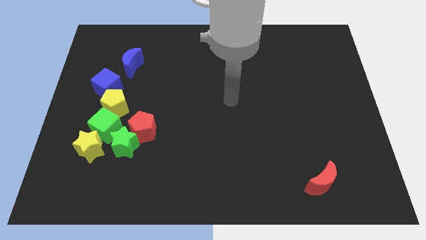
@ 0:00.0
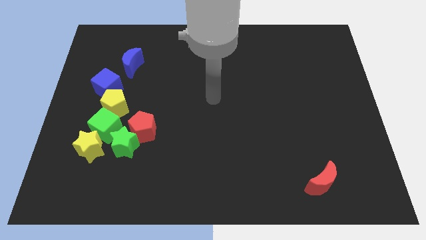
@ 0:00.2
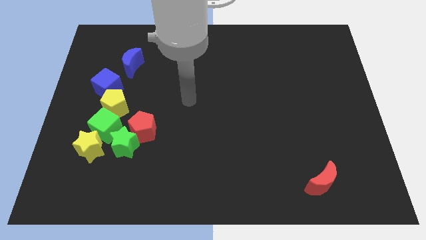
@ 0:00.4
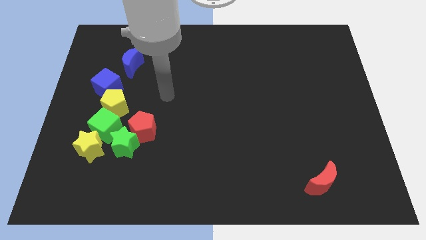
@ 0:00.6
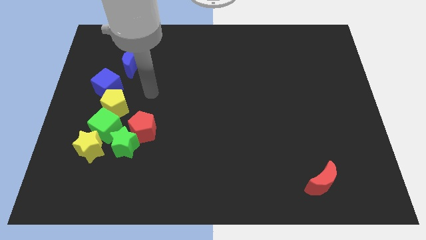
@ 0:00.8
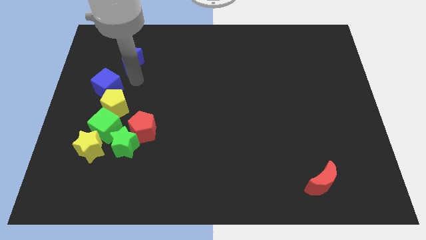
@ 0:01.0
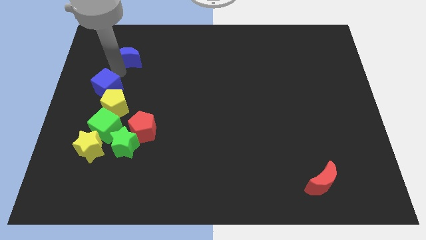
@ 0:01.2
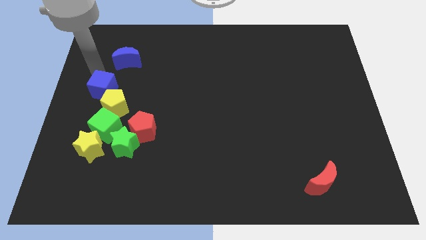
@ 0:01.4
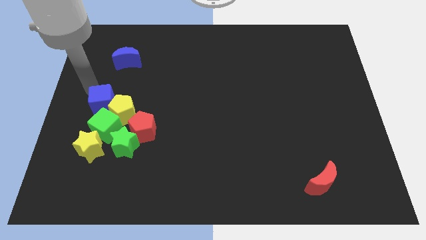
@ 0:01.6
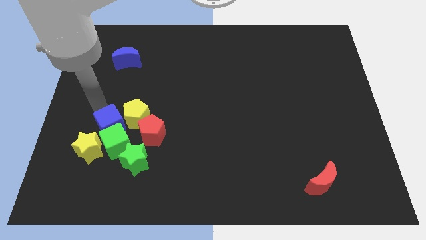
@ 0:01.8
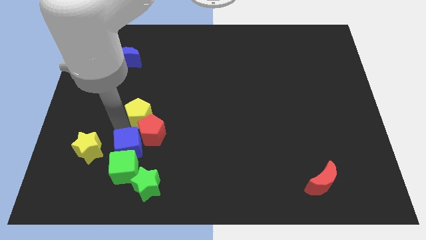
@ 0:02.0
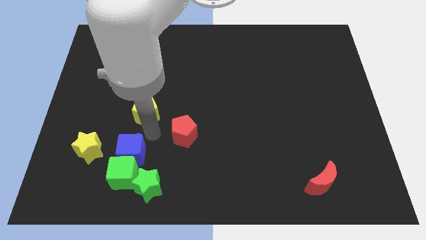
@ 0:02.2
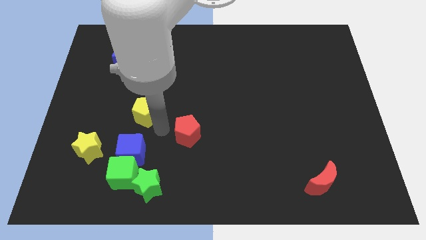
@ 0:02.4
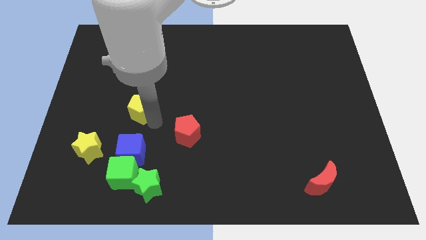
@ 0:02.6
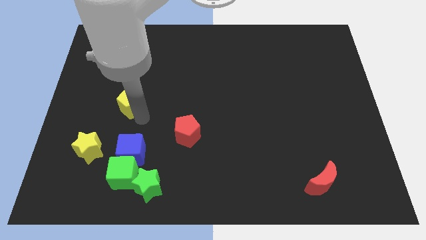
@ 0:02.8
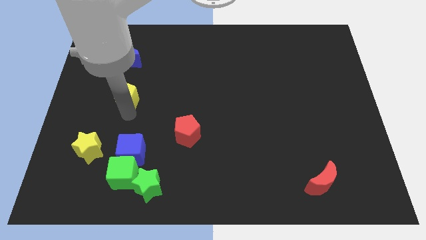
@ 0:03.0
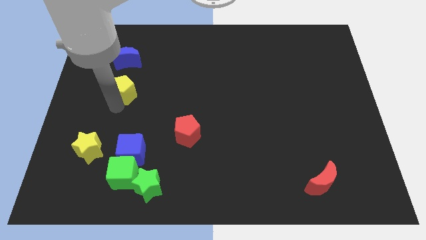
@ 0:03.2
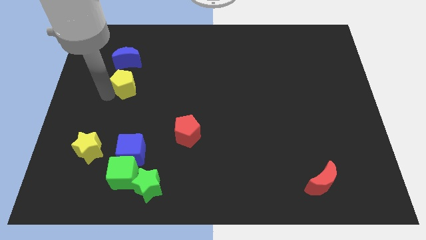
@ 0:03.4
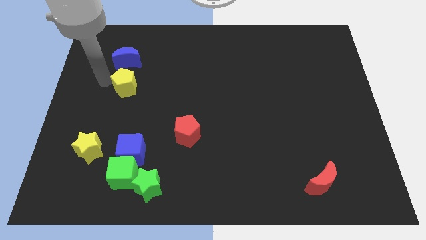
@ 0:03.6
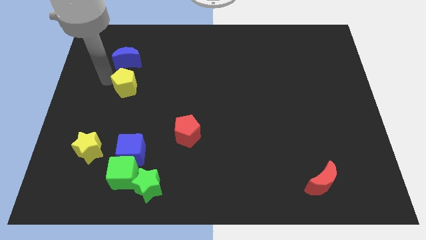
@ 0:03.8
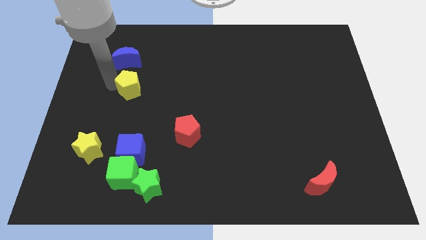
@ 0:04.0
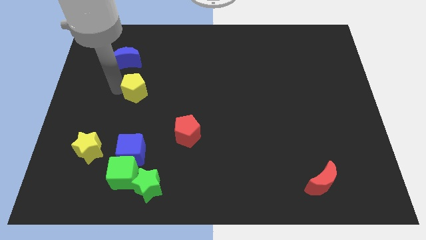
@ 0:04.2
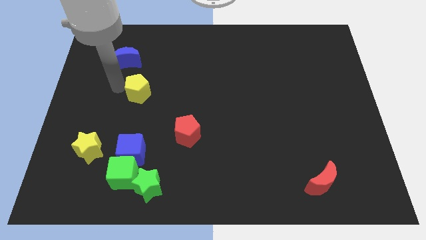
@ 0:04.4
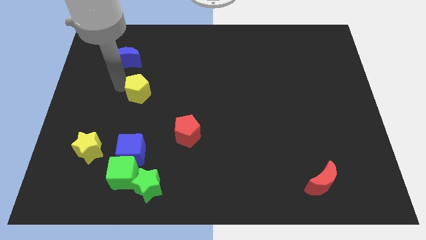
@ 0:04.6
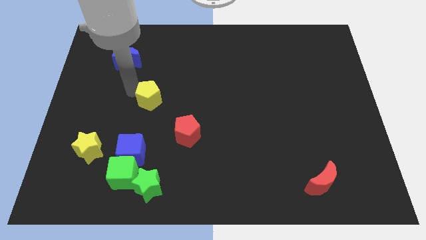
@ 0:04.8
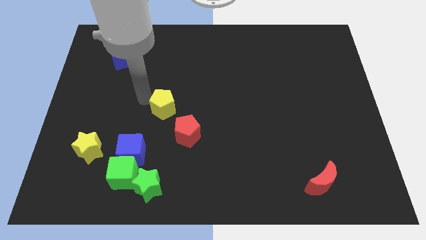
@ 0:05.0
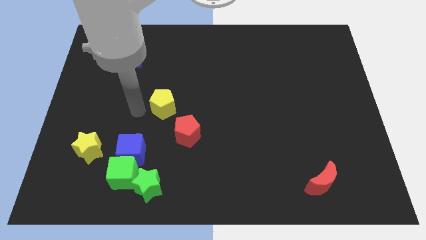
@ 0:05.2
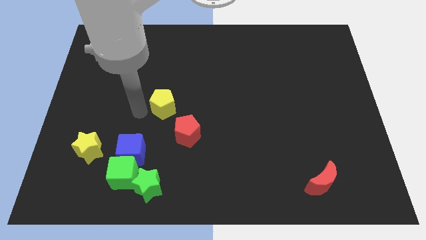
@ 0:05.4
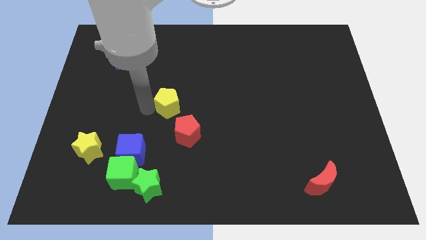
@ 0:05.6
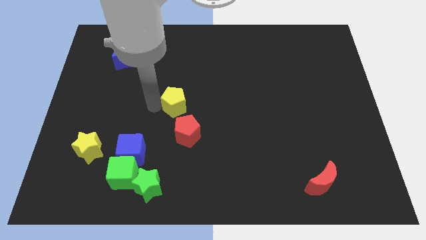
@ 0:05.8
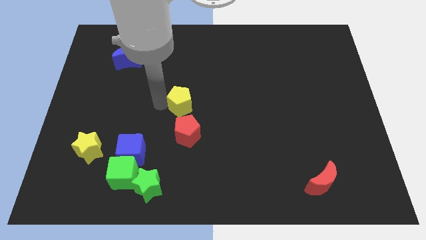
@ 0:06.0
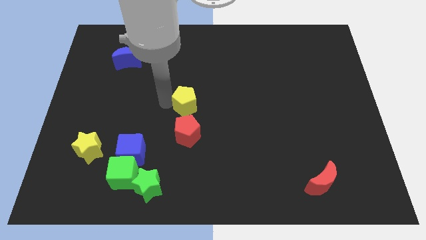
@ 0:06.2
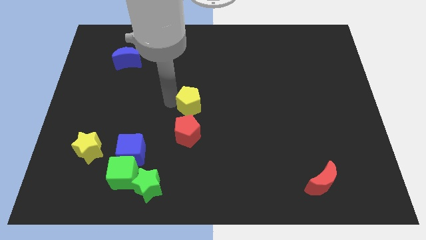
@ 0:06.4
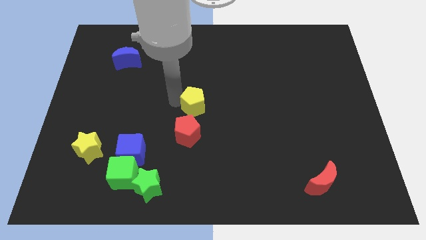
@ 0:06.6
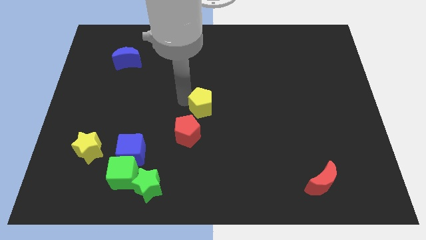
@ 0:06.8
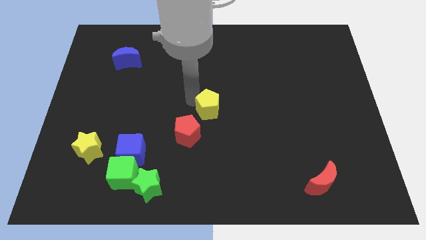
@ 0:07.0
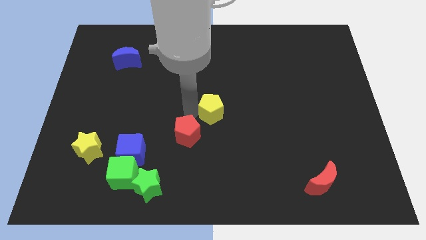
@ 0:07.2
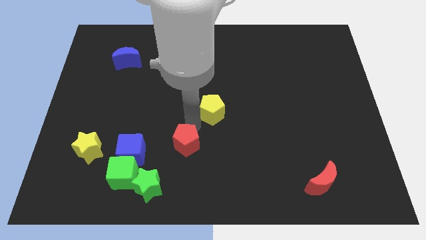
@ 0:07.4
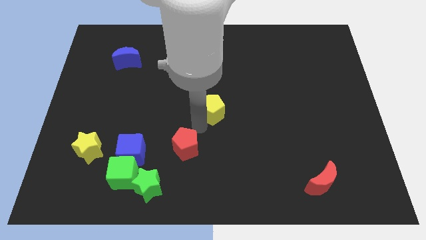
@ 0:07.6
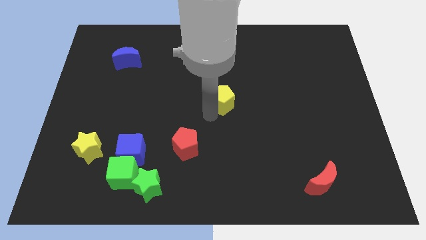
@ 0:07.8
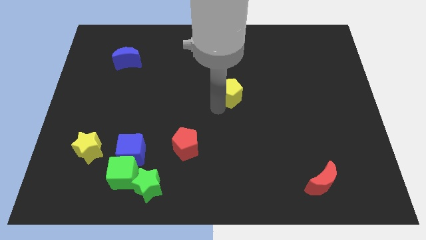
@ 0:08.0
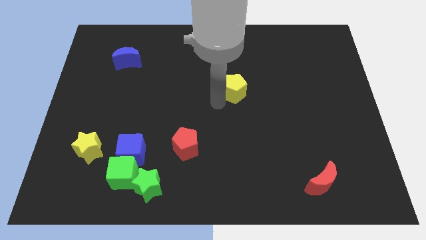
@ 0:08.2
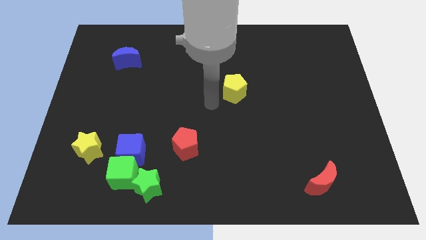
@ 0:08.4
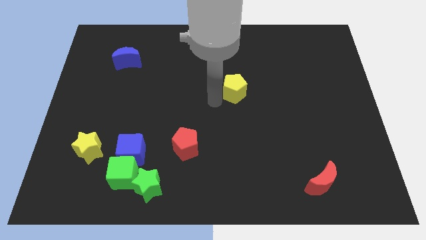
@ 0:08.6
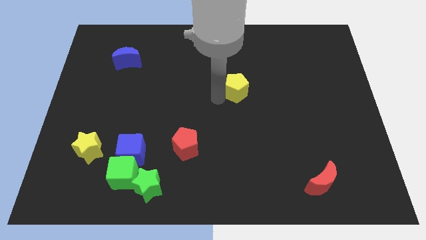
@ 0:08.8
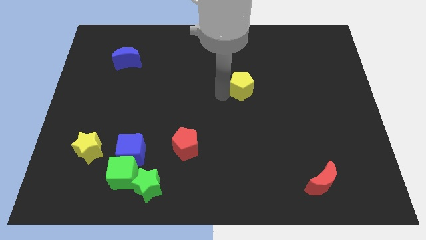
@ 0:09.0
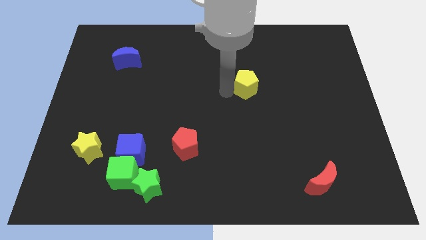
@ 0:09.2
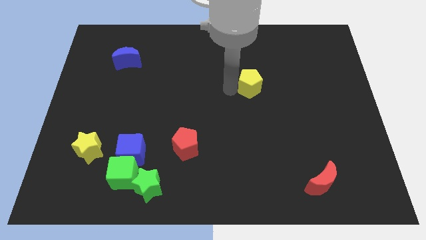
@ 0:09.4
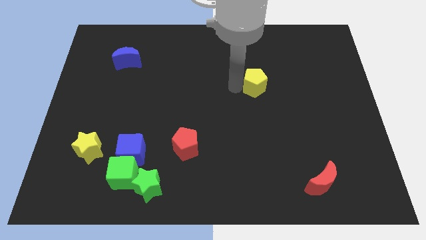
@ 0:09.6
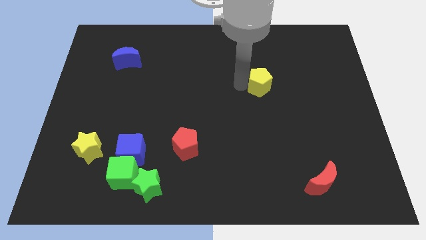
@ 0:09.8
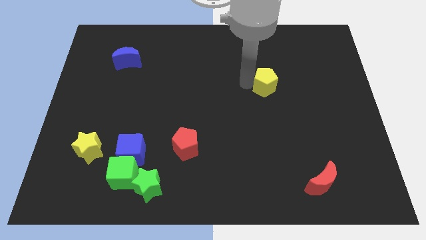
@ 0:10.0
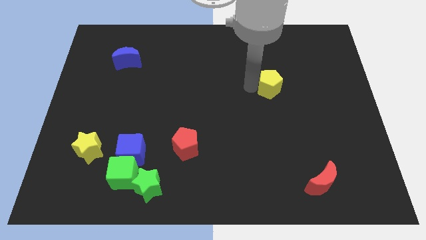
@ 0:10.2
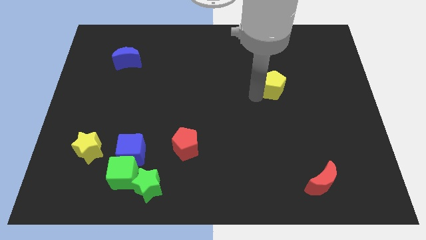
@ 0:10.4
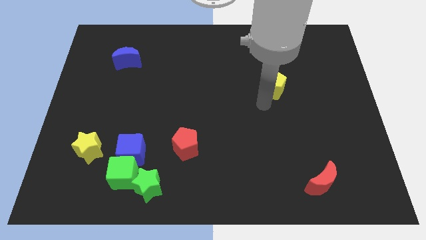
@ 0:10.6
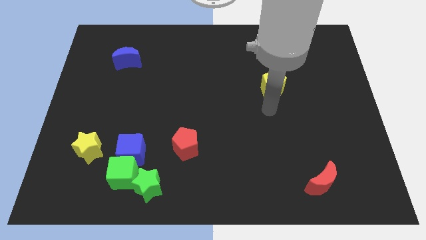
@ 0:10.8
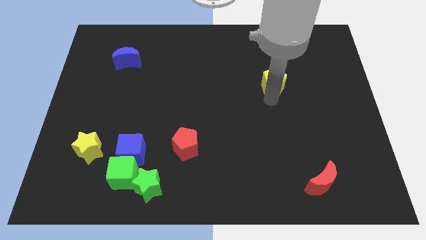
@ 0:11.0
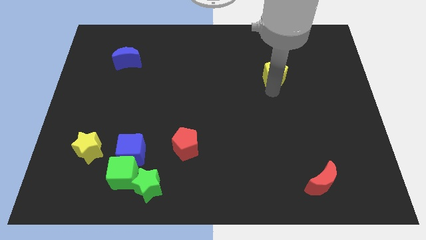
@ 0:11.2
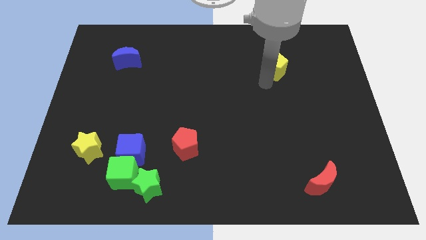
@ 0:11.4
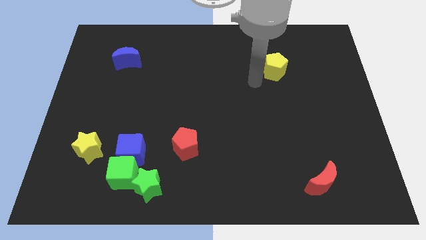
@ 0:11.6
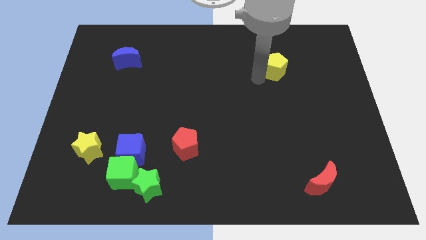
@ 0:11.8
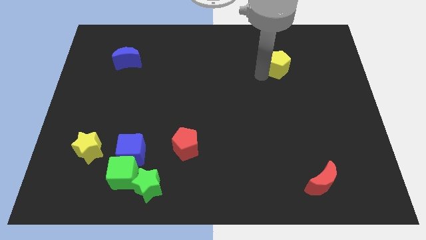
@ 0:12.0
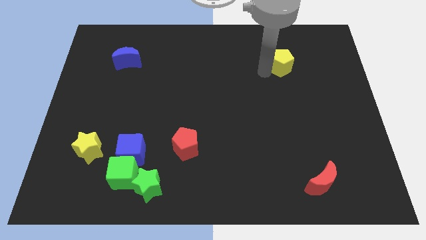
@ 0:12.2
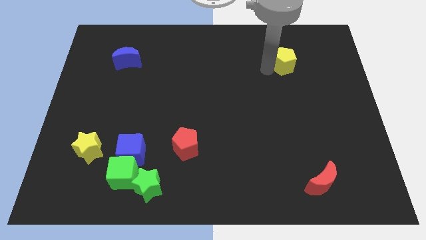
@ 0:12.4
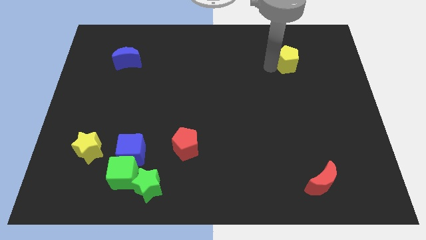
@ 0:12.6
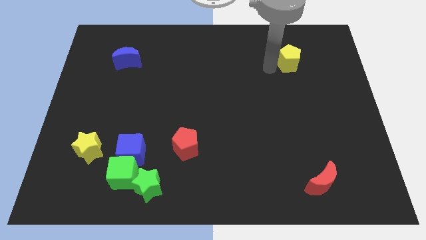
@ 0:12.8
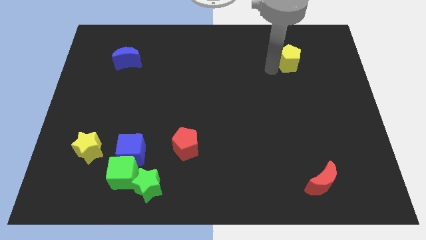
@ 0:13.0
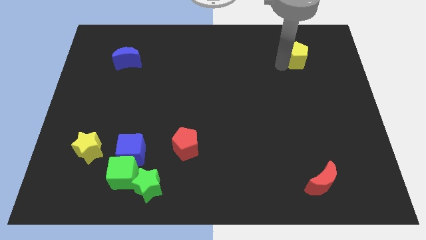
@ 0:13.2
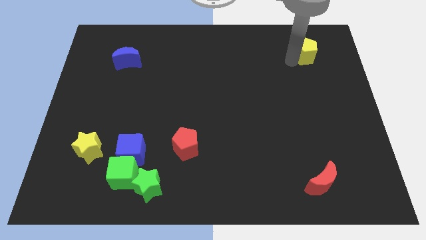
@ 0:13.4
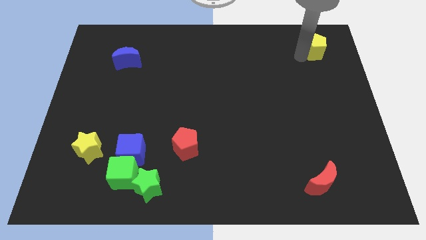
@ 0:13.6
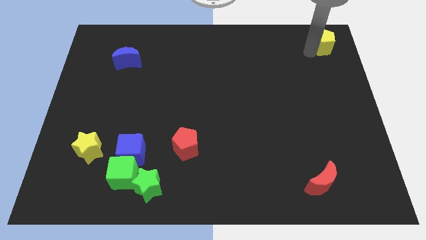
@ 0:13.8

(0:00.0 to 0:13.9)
move the yellow pentagon to the upper right corner
